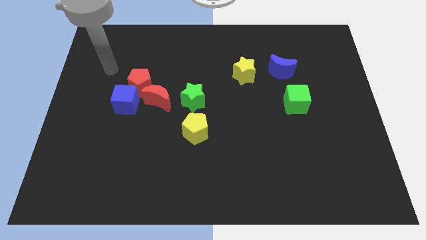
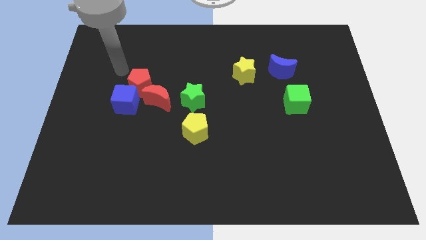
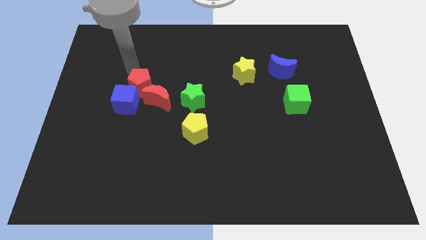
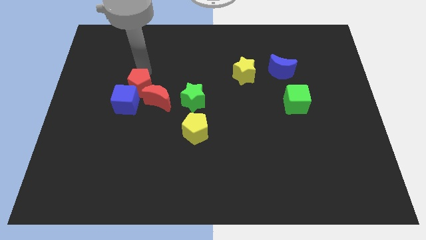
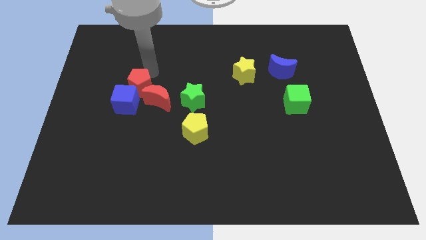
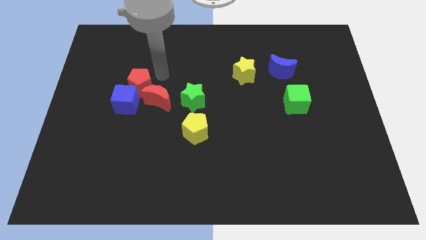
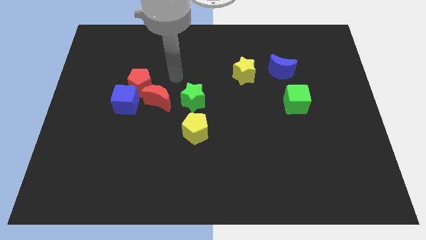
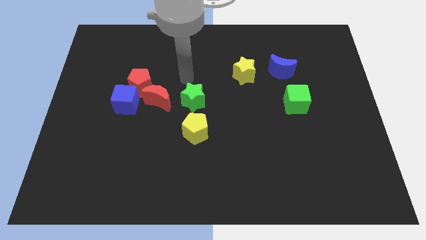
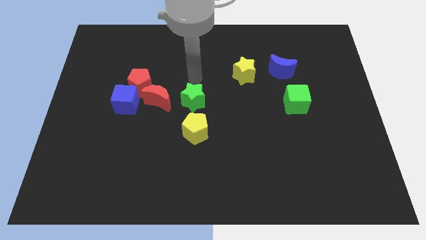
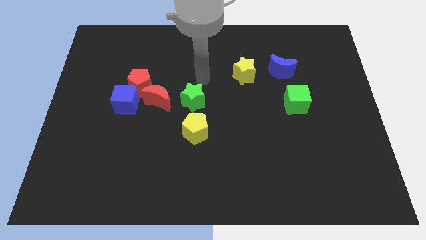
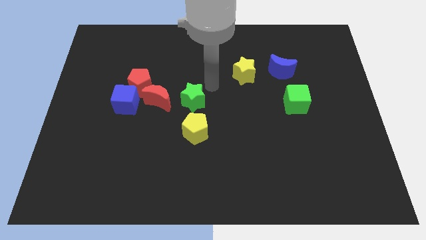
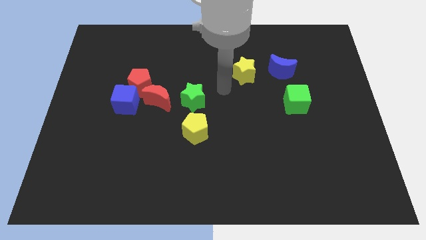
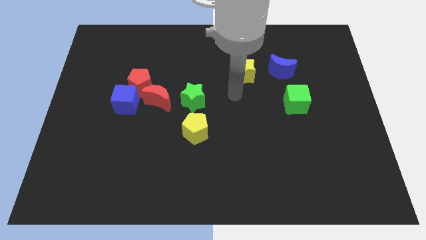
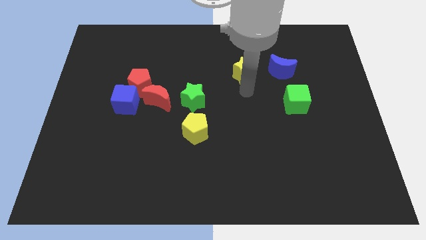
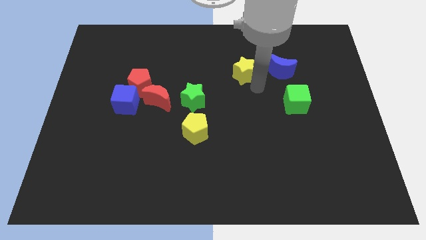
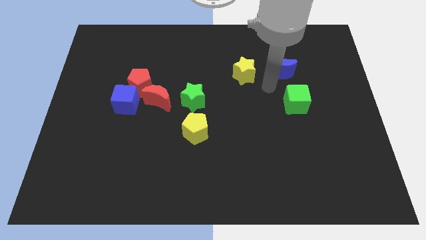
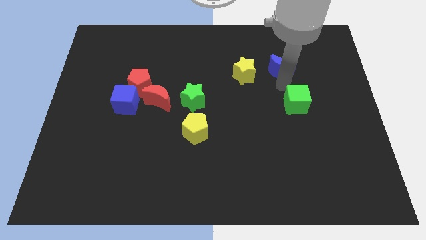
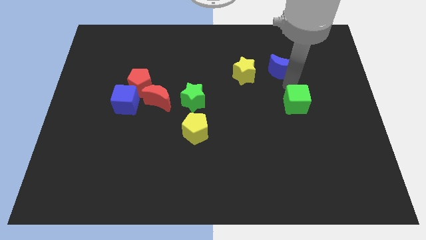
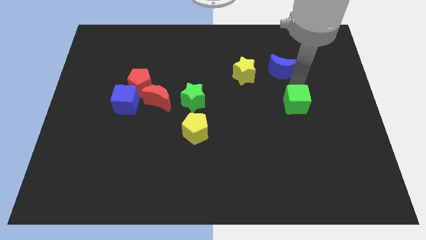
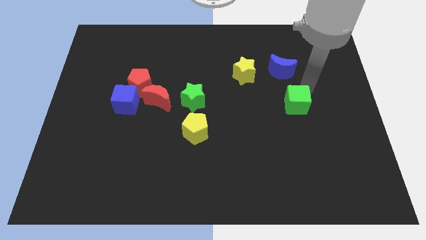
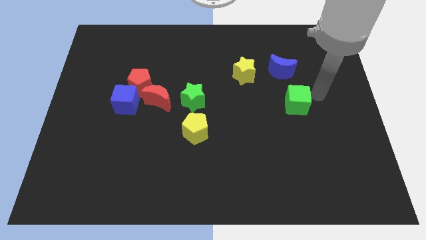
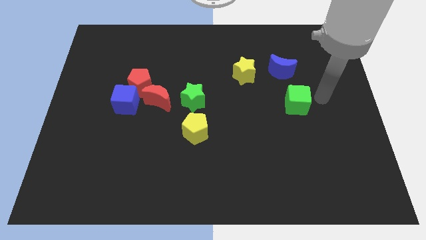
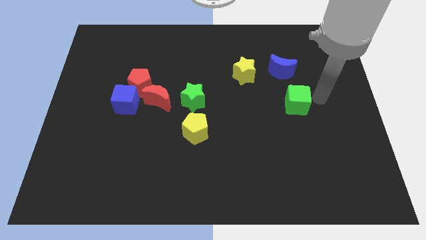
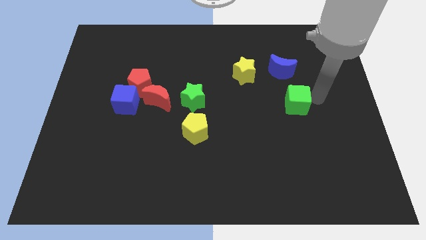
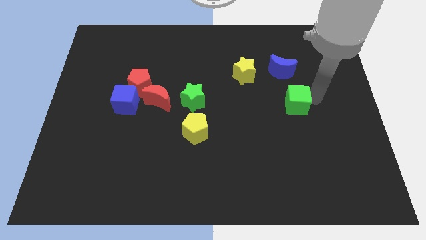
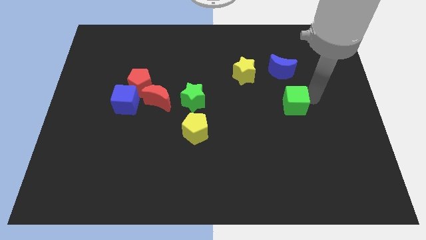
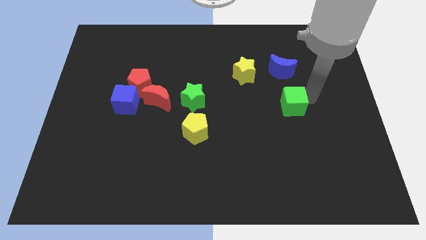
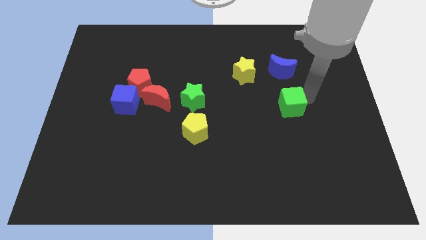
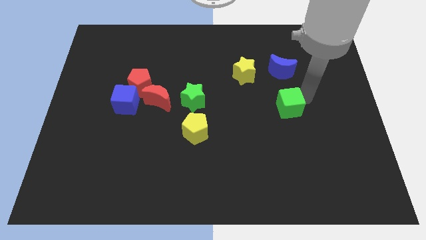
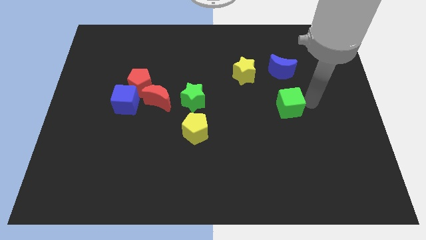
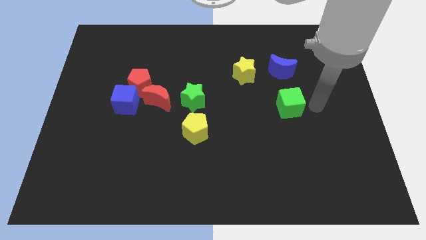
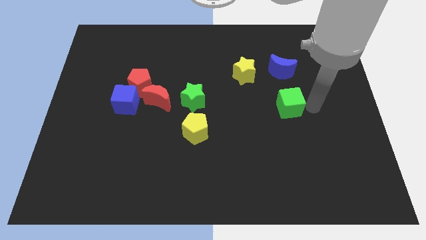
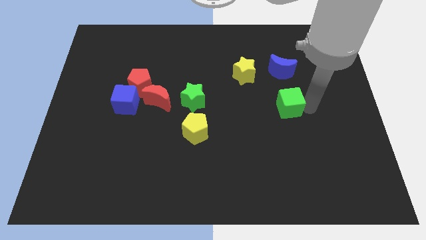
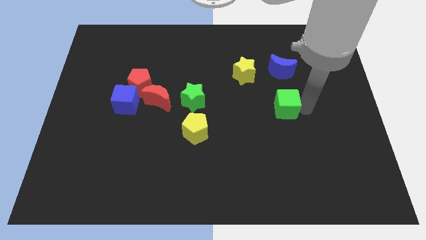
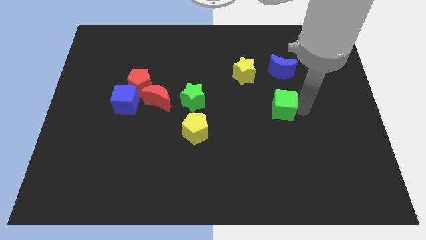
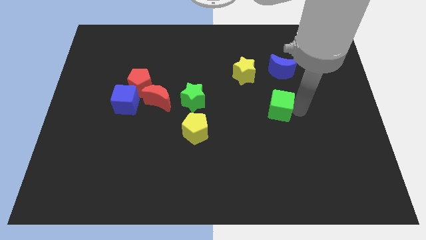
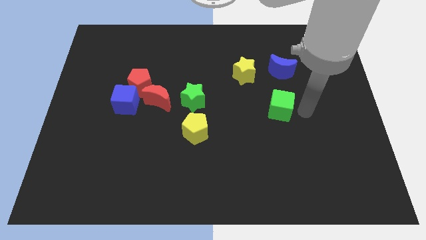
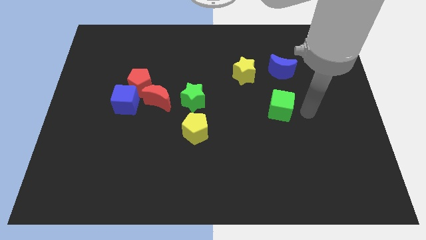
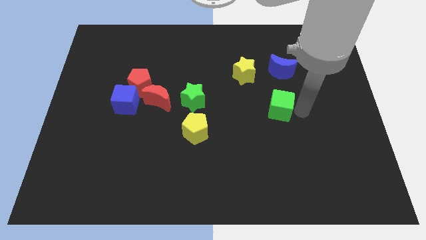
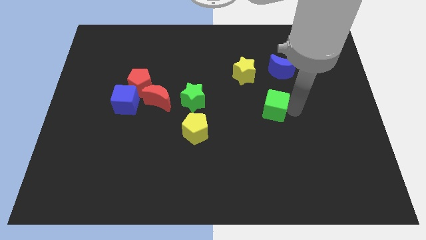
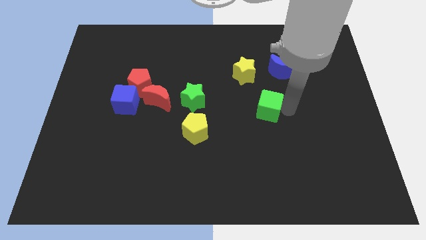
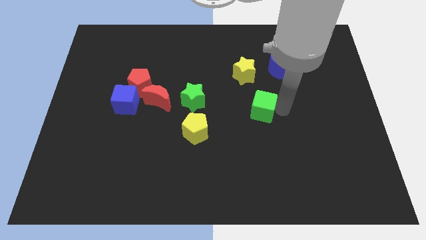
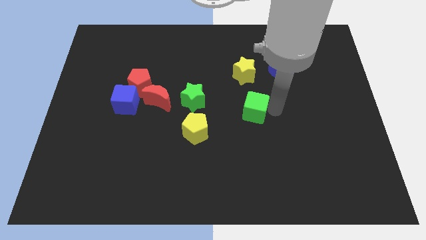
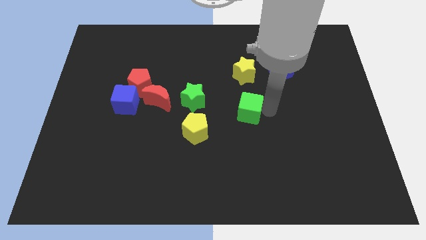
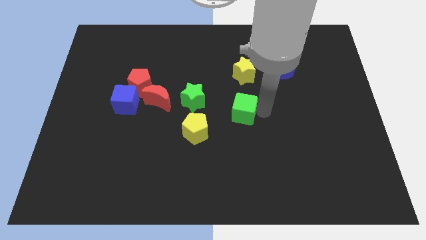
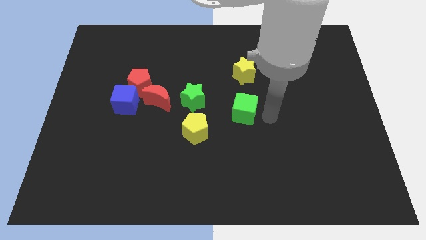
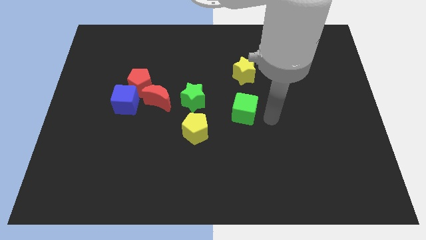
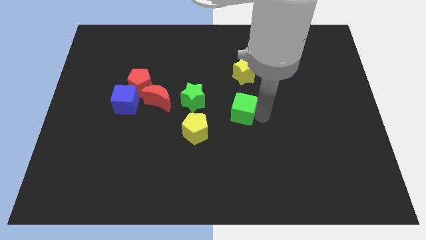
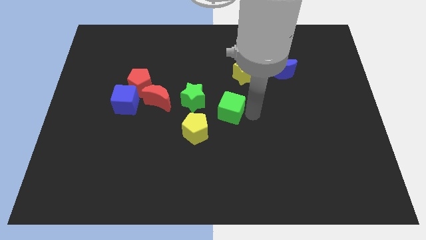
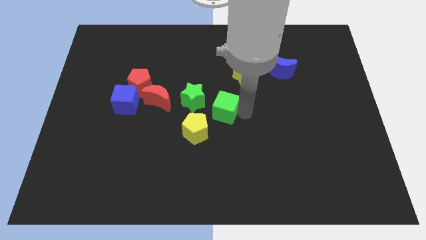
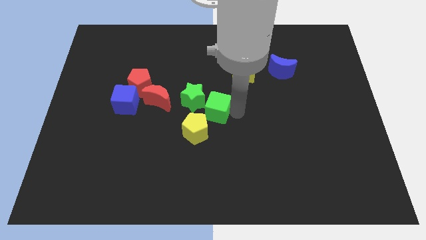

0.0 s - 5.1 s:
put the green cube just right of the red moon

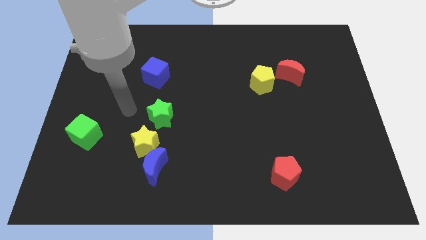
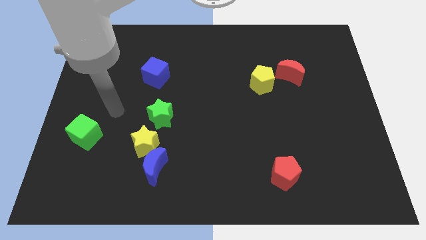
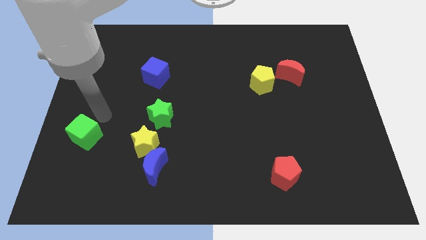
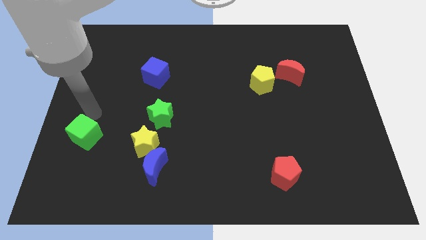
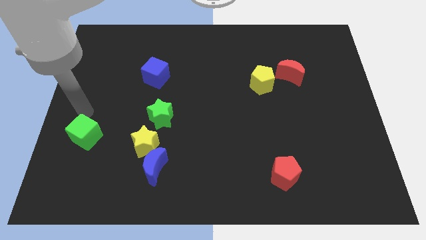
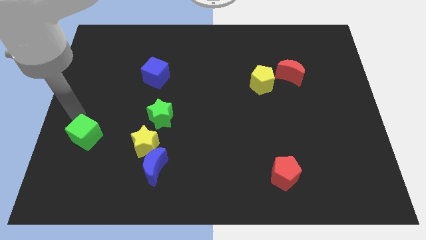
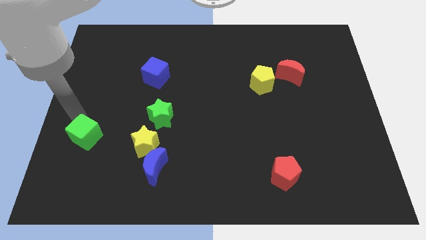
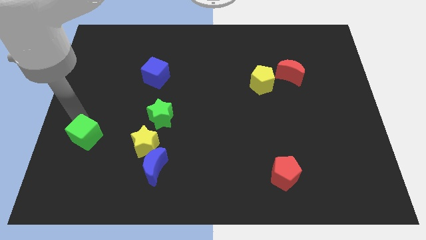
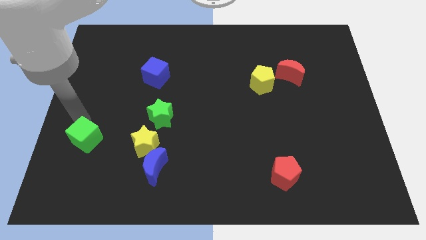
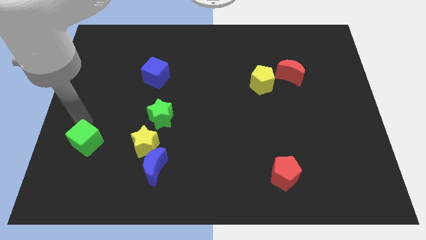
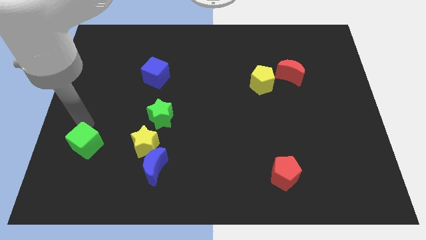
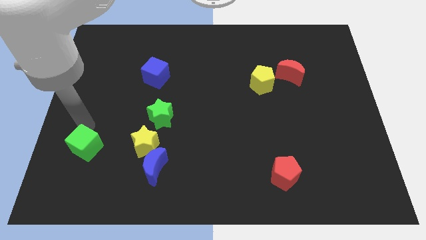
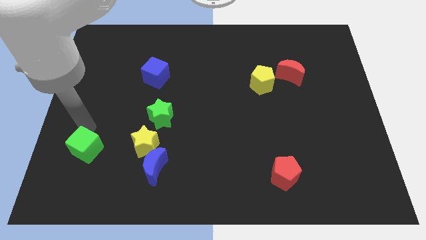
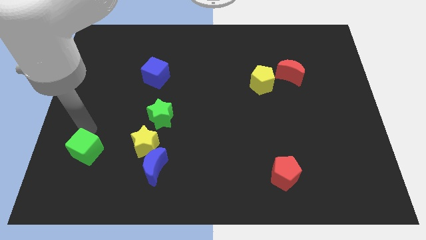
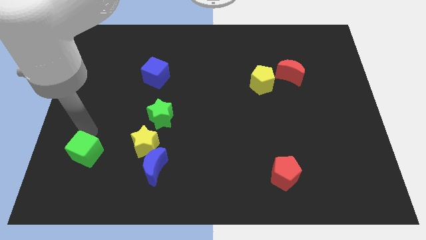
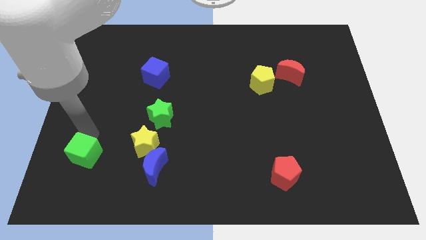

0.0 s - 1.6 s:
push the green cube to the left side of the blue moon
